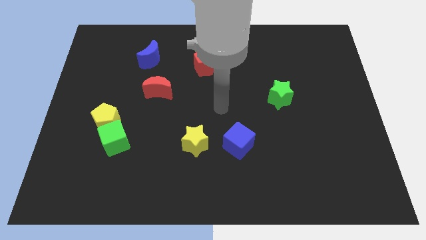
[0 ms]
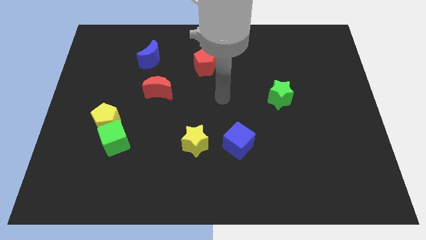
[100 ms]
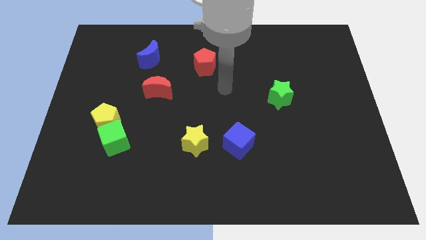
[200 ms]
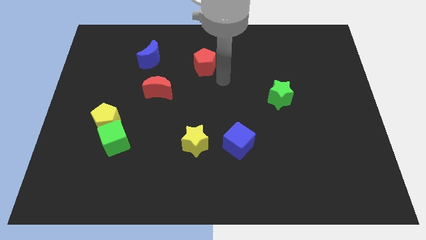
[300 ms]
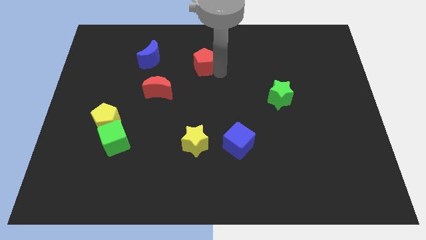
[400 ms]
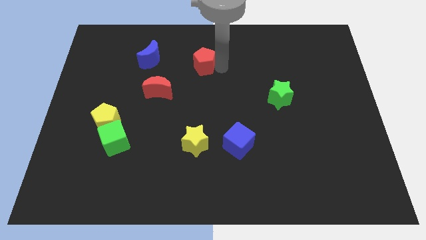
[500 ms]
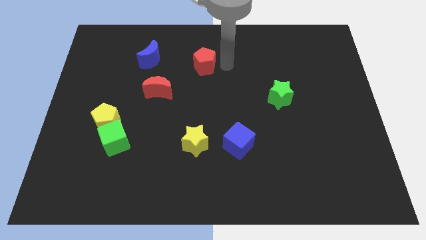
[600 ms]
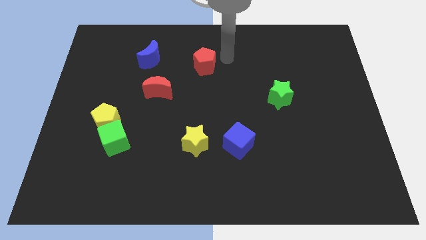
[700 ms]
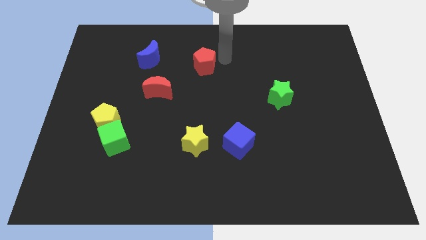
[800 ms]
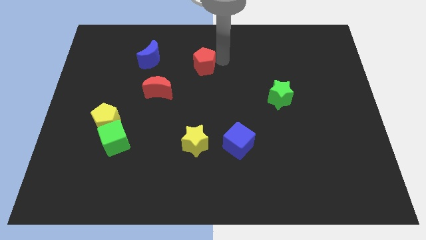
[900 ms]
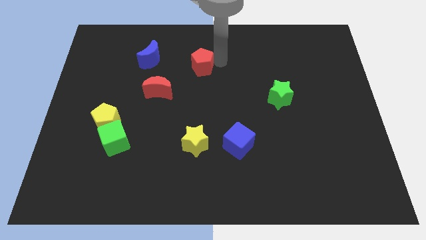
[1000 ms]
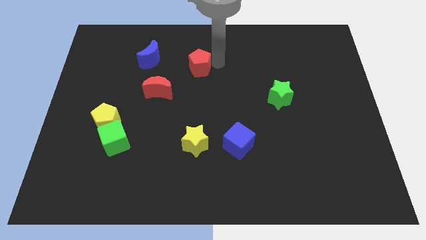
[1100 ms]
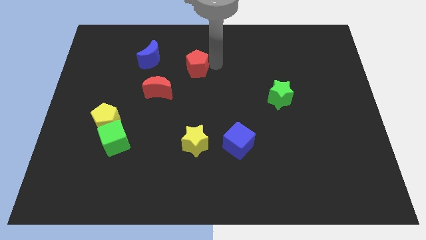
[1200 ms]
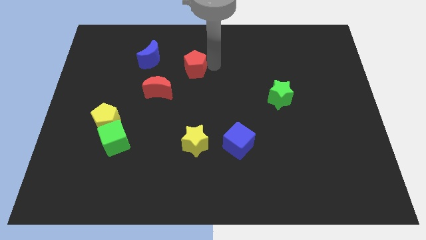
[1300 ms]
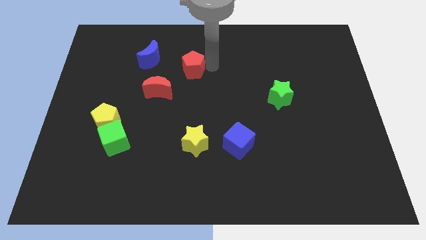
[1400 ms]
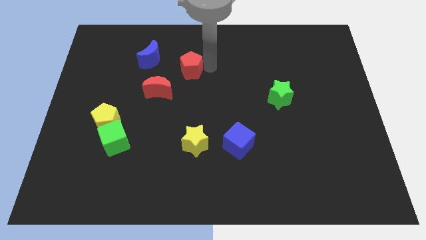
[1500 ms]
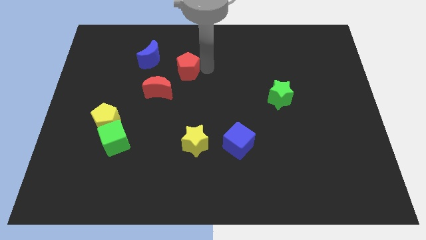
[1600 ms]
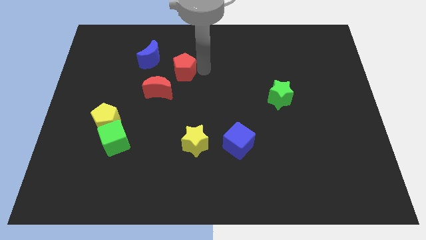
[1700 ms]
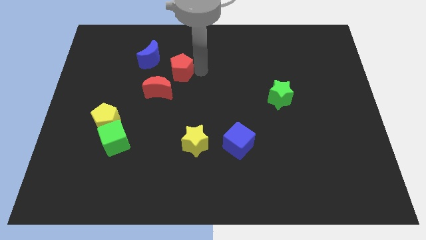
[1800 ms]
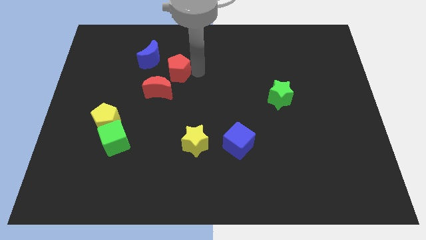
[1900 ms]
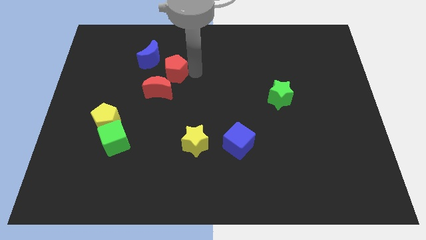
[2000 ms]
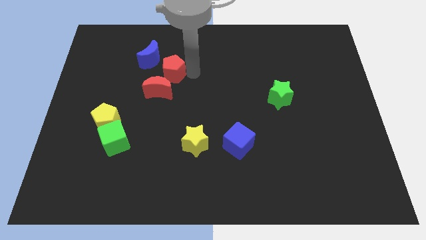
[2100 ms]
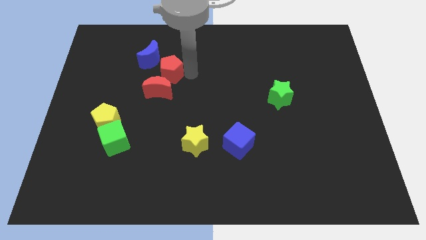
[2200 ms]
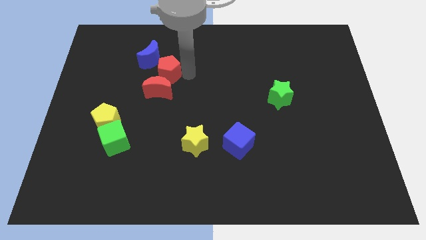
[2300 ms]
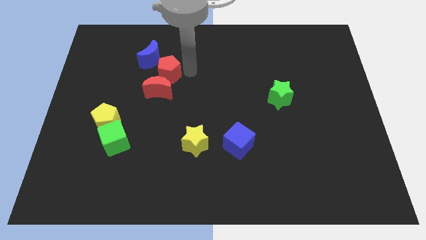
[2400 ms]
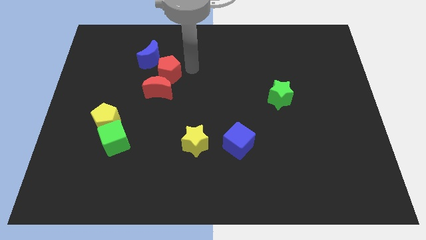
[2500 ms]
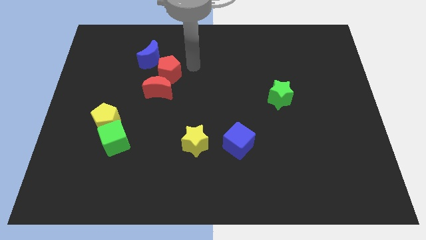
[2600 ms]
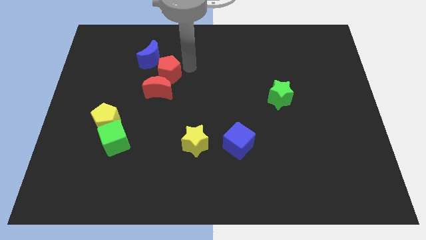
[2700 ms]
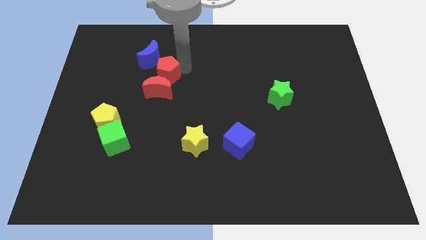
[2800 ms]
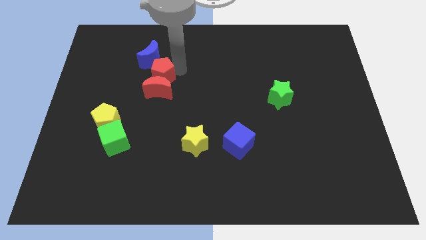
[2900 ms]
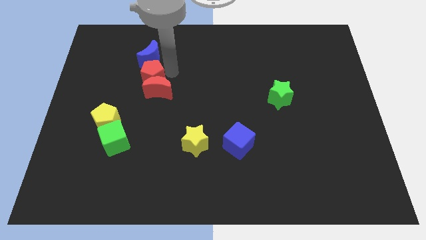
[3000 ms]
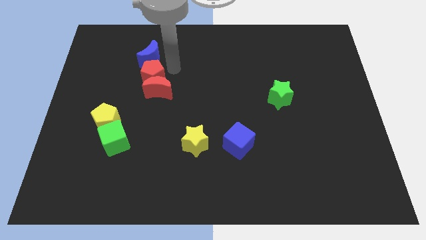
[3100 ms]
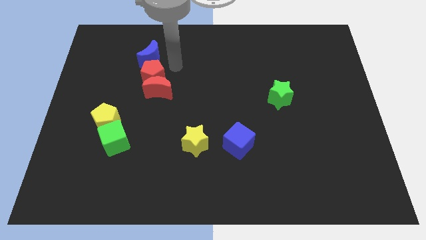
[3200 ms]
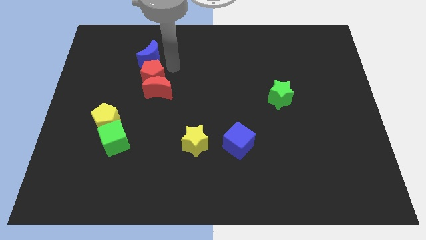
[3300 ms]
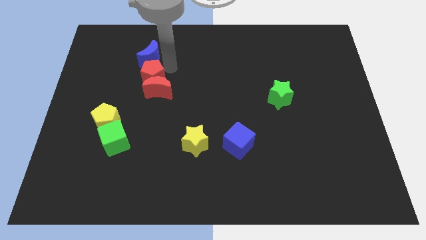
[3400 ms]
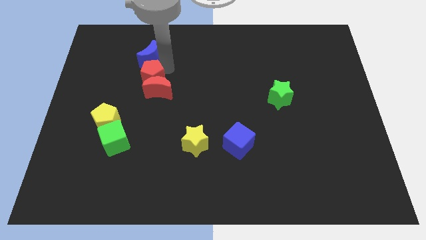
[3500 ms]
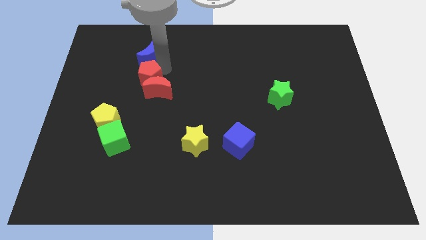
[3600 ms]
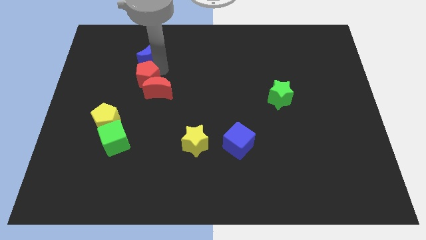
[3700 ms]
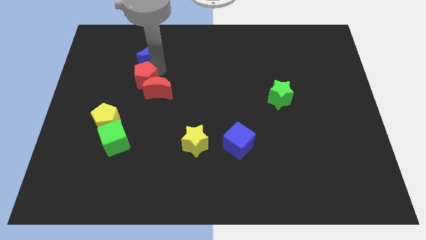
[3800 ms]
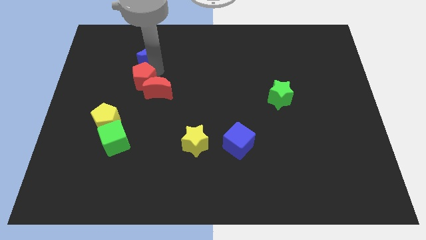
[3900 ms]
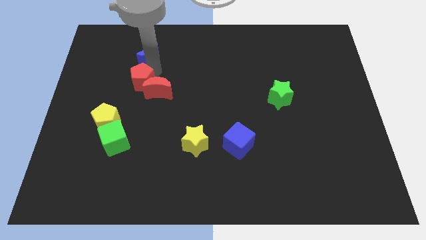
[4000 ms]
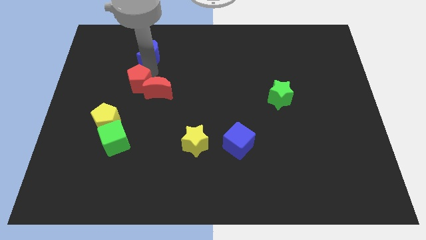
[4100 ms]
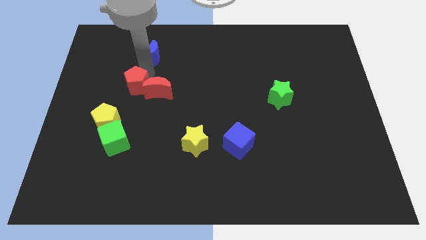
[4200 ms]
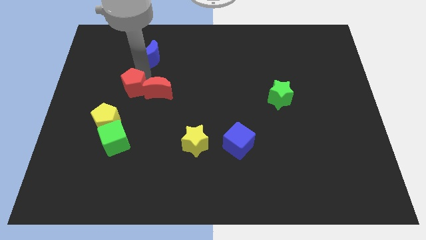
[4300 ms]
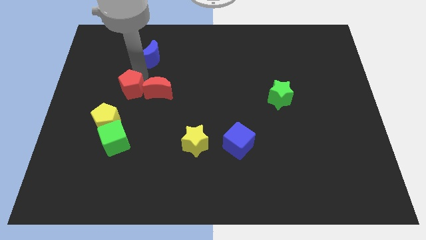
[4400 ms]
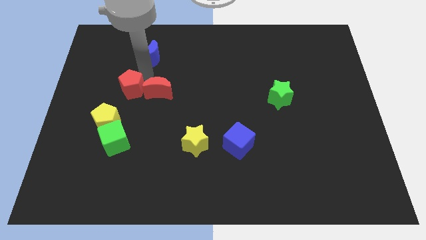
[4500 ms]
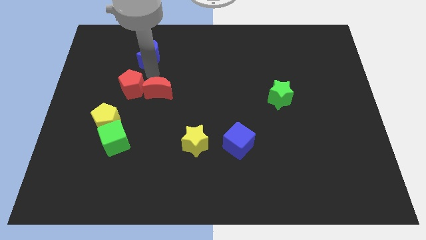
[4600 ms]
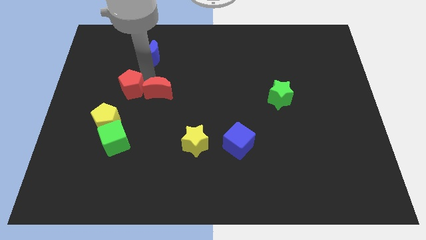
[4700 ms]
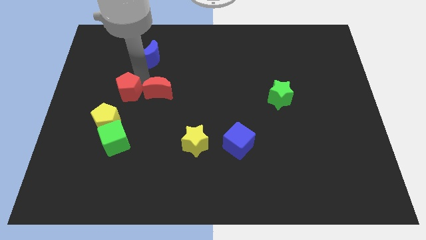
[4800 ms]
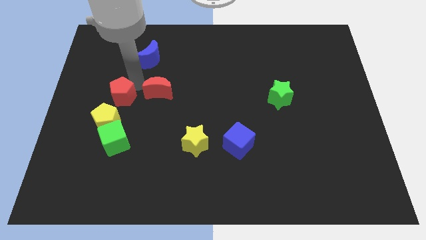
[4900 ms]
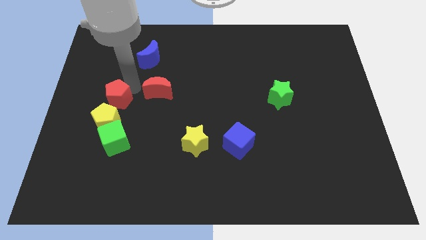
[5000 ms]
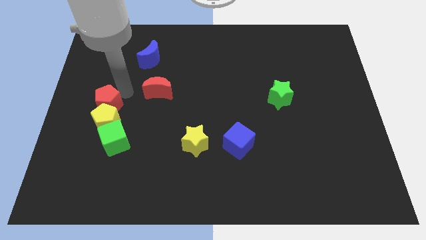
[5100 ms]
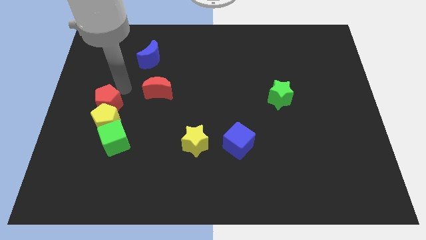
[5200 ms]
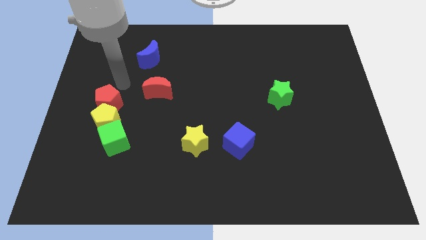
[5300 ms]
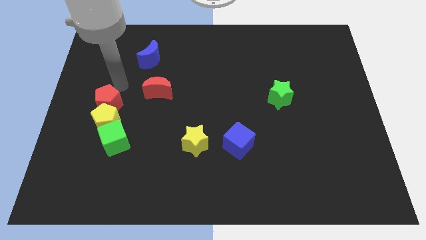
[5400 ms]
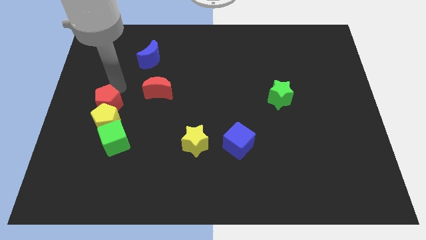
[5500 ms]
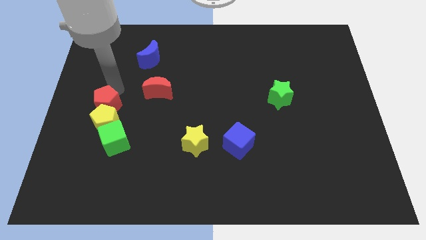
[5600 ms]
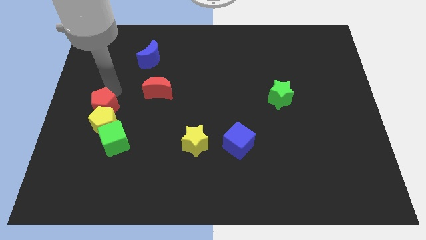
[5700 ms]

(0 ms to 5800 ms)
push the red pentagon diagonally up and to the left of the green cube

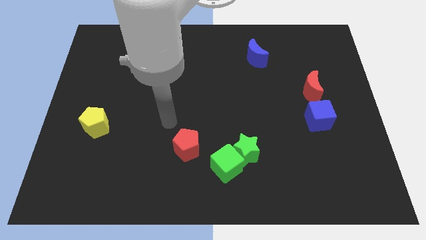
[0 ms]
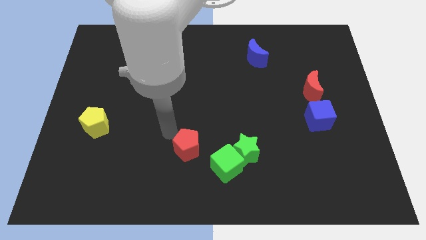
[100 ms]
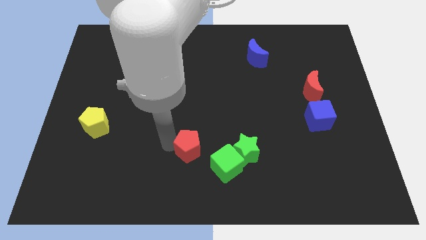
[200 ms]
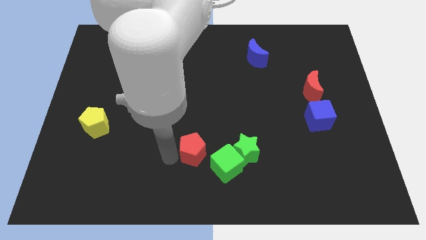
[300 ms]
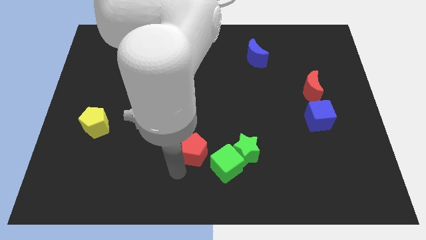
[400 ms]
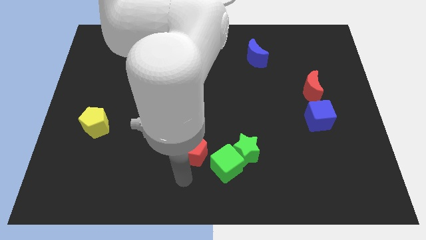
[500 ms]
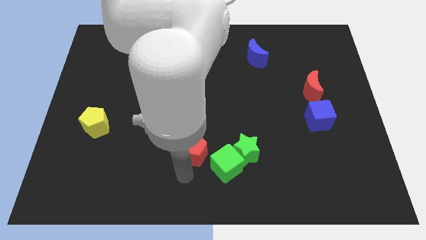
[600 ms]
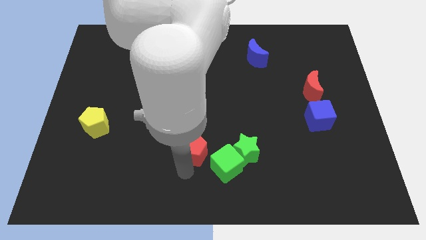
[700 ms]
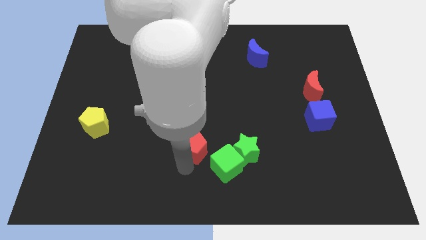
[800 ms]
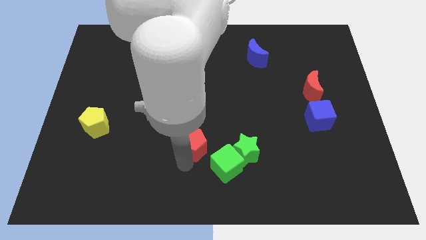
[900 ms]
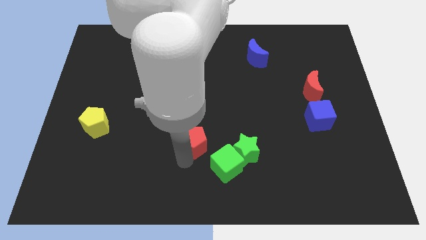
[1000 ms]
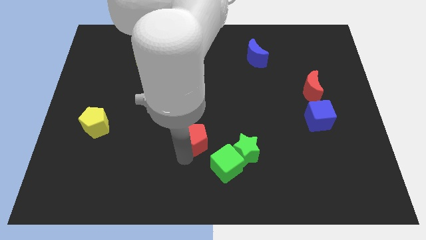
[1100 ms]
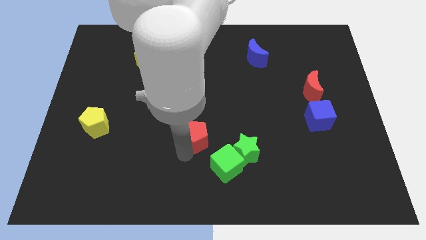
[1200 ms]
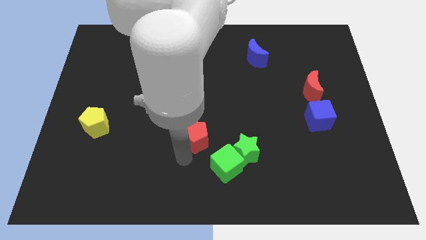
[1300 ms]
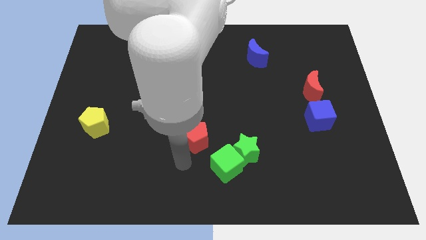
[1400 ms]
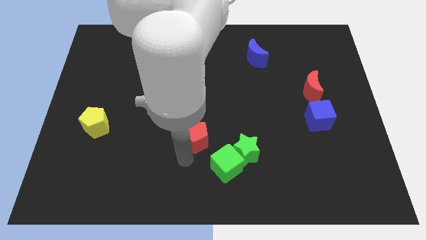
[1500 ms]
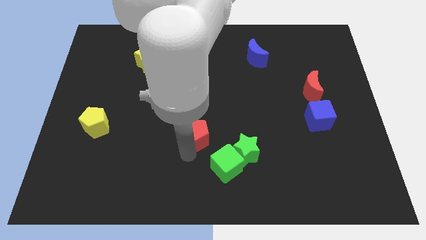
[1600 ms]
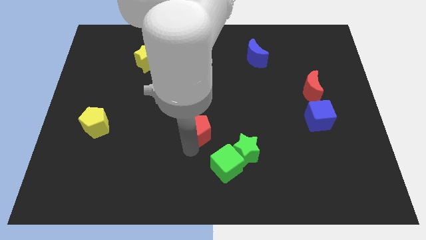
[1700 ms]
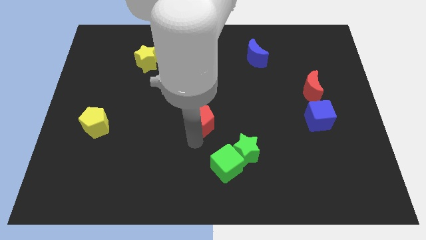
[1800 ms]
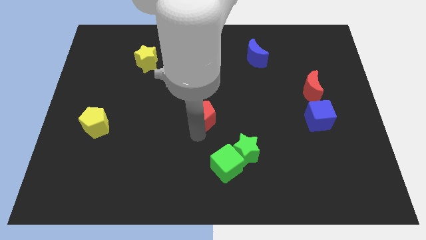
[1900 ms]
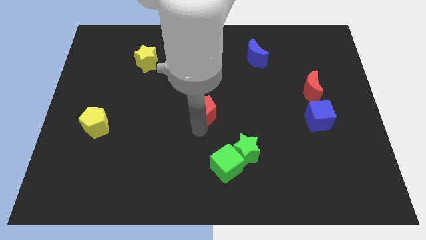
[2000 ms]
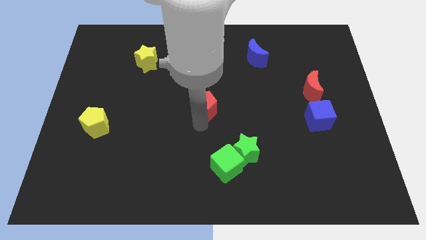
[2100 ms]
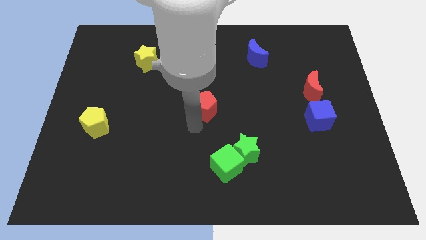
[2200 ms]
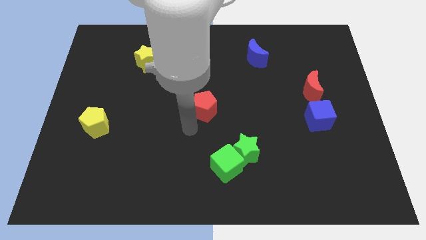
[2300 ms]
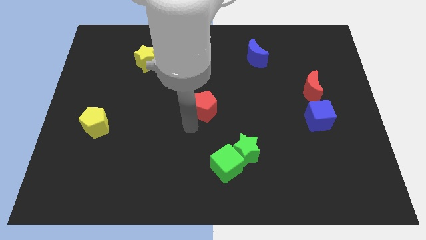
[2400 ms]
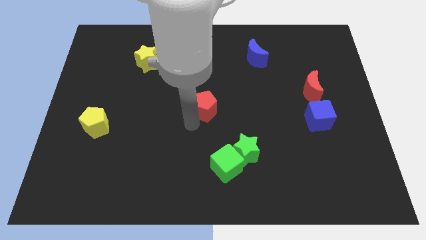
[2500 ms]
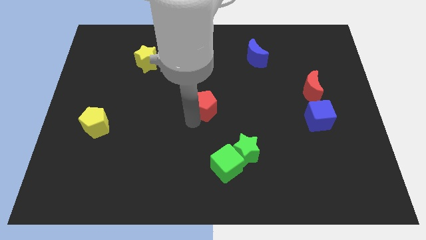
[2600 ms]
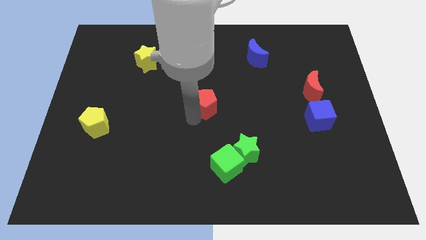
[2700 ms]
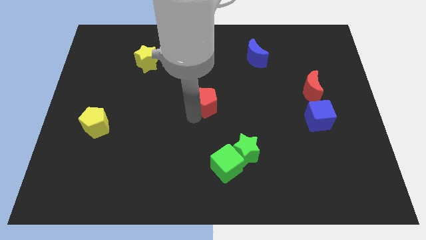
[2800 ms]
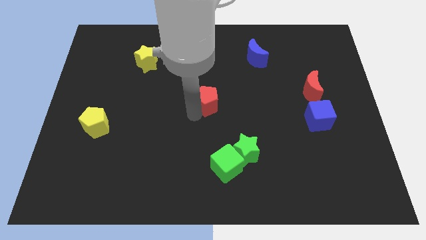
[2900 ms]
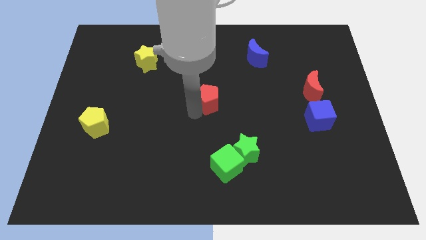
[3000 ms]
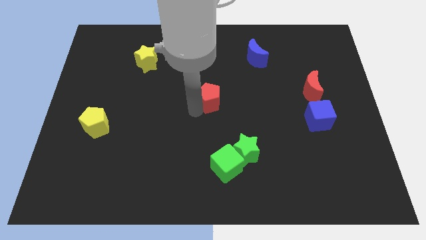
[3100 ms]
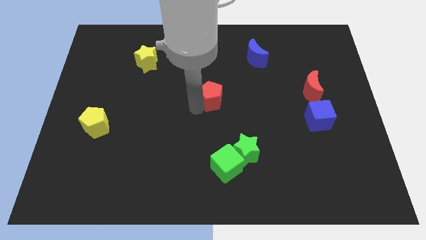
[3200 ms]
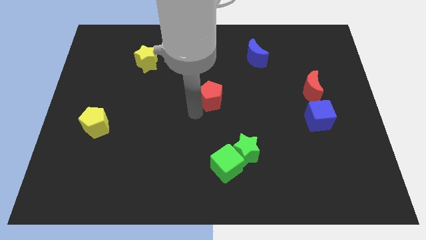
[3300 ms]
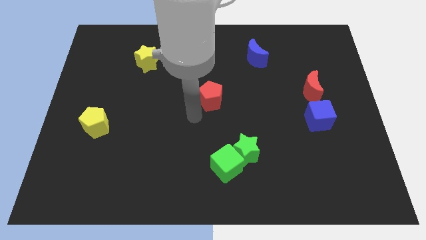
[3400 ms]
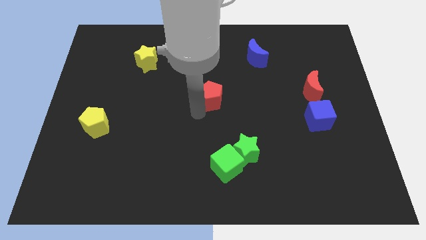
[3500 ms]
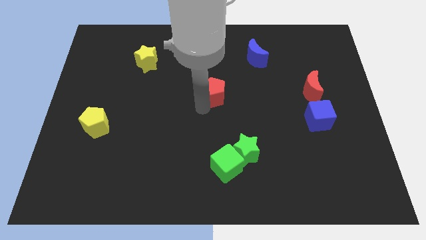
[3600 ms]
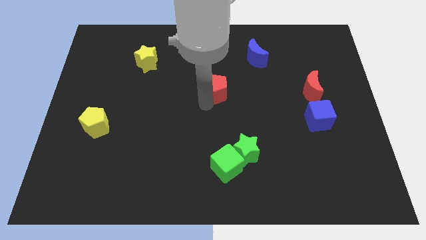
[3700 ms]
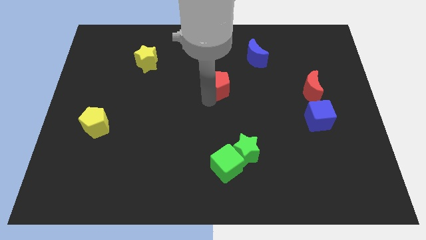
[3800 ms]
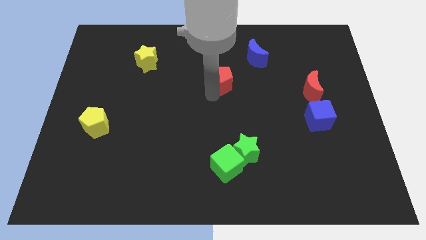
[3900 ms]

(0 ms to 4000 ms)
push the red pentagon diagonally down and to the left of the blue moon
